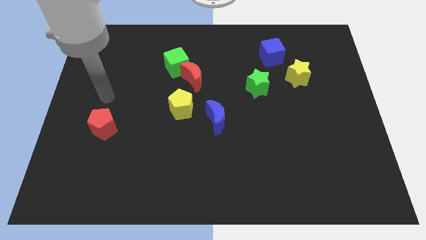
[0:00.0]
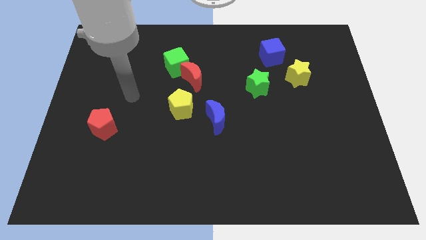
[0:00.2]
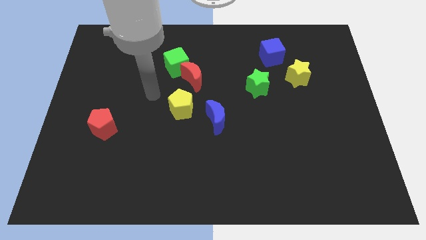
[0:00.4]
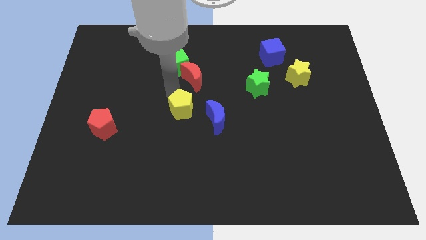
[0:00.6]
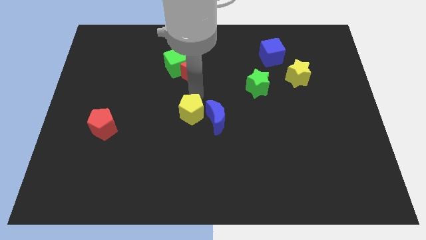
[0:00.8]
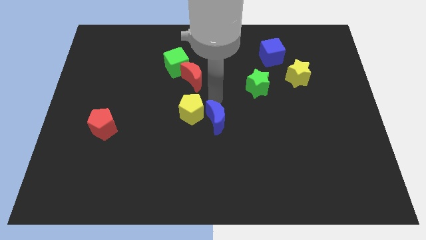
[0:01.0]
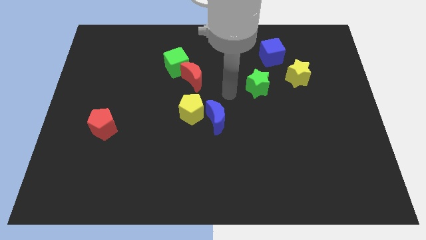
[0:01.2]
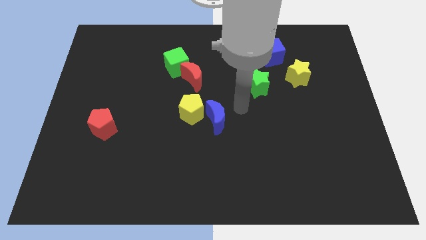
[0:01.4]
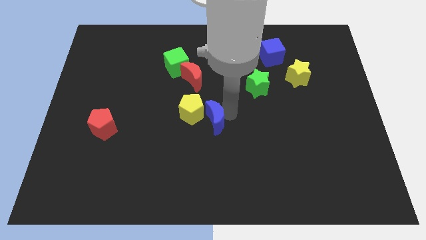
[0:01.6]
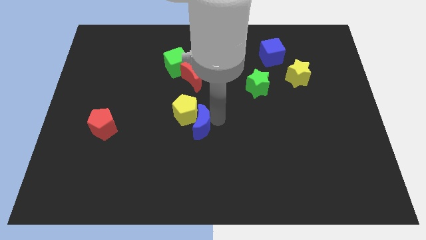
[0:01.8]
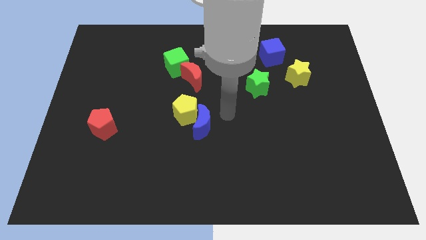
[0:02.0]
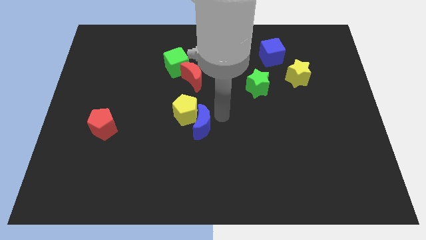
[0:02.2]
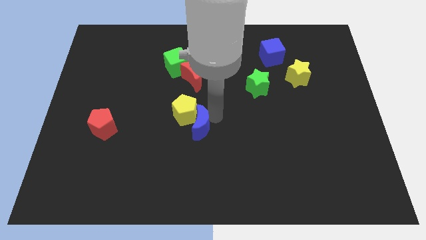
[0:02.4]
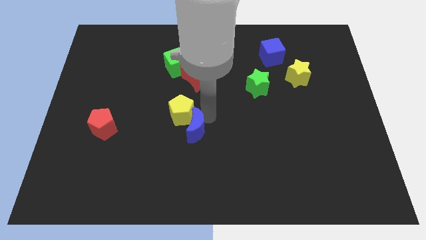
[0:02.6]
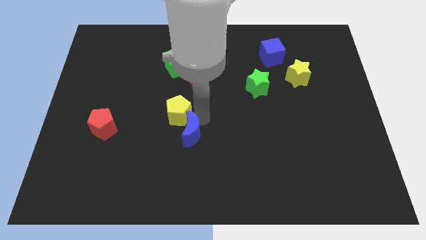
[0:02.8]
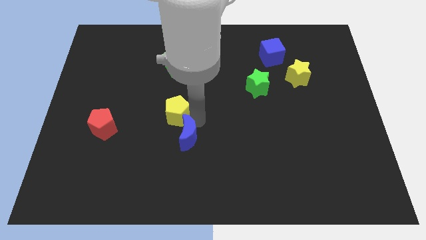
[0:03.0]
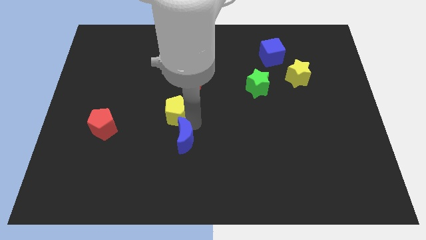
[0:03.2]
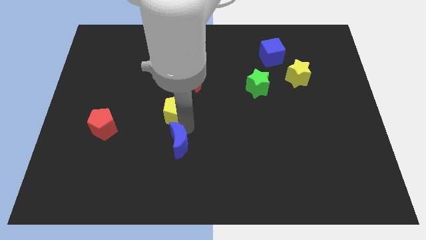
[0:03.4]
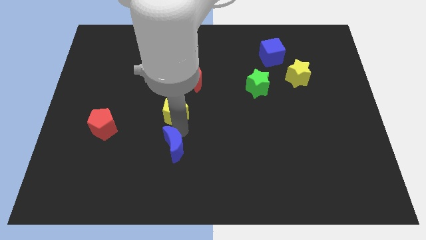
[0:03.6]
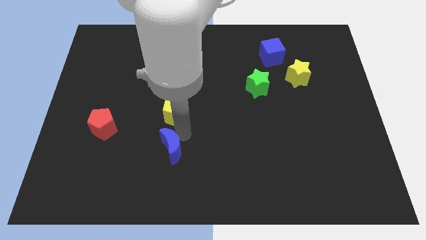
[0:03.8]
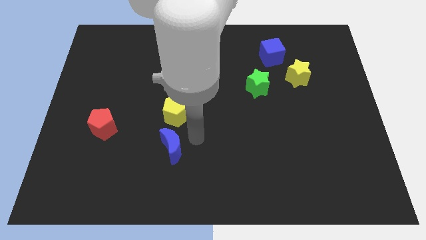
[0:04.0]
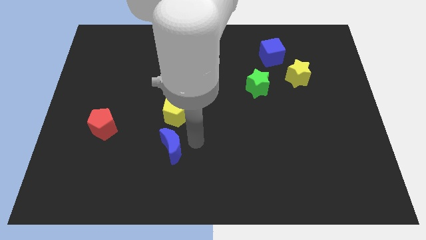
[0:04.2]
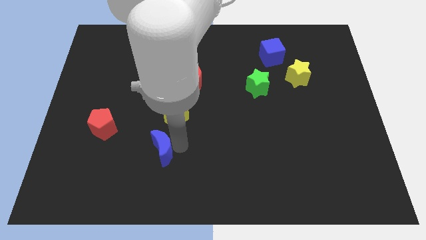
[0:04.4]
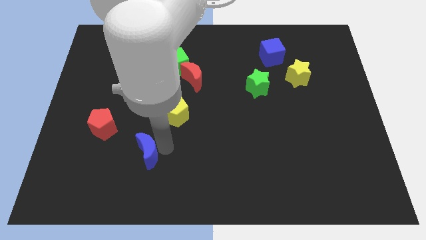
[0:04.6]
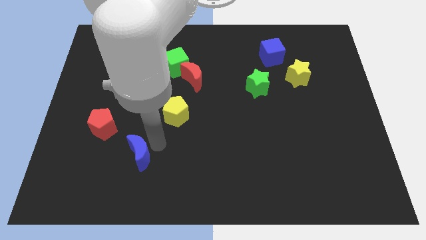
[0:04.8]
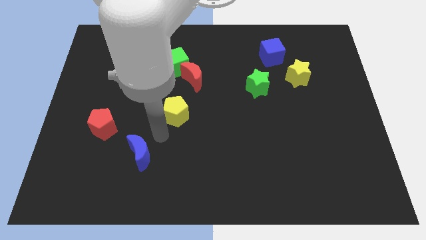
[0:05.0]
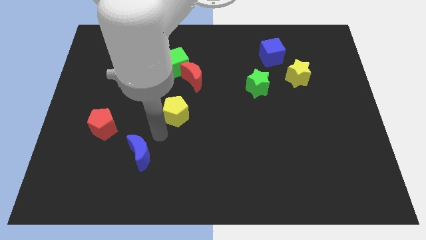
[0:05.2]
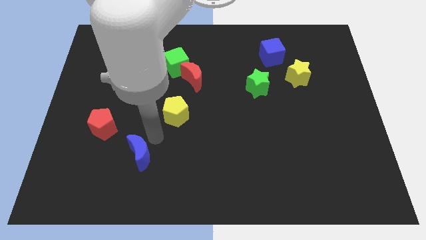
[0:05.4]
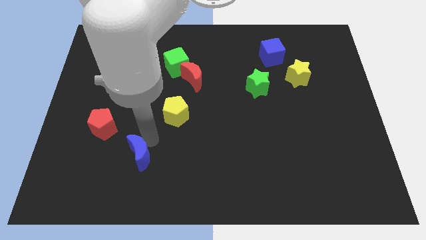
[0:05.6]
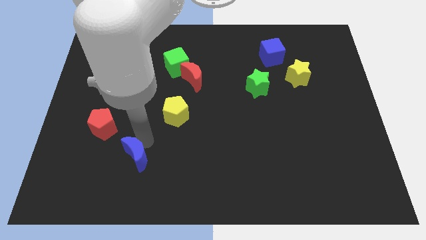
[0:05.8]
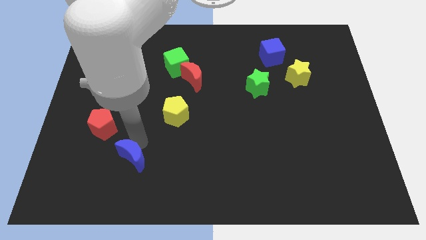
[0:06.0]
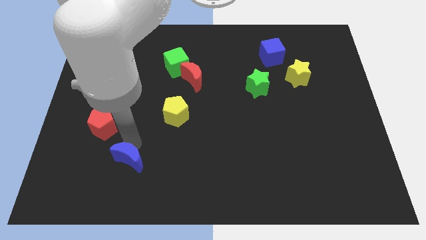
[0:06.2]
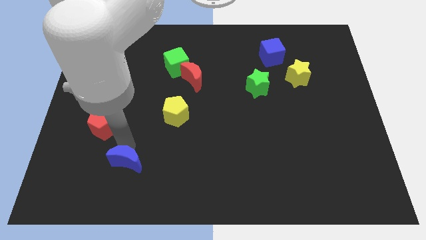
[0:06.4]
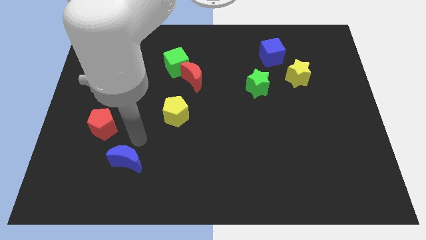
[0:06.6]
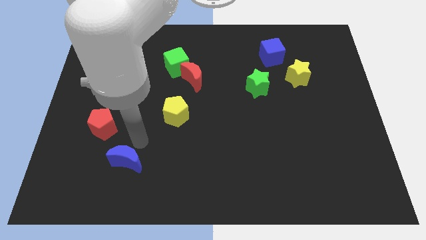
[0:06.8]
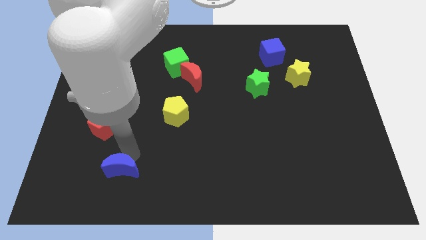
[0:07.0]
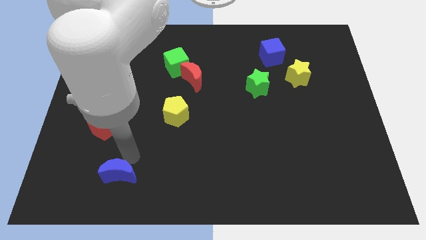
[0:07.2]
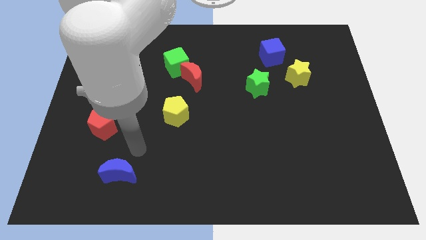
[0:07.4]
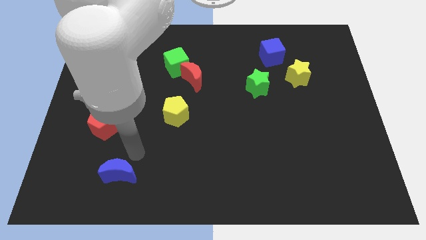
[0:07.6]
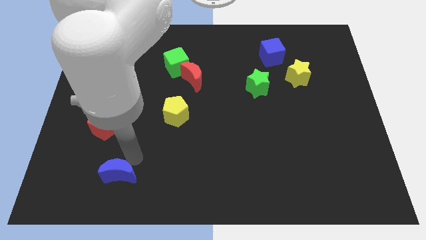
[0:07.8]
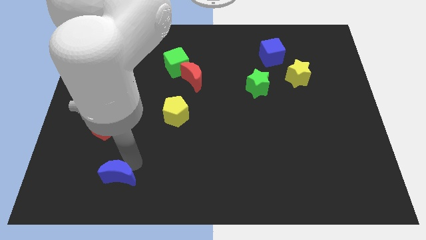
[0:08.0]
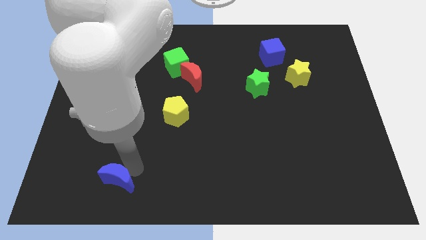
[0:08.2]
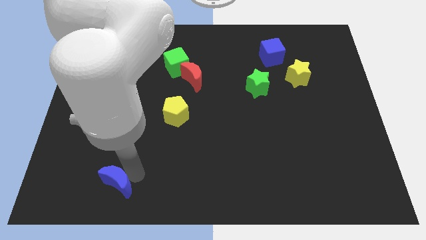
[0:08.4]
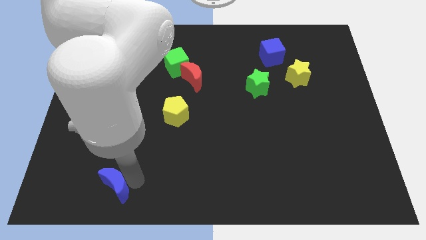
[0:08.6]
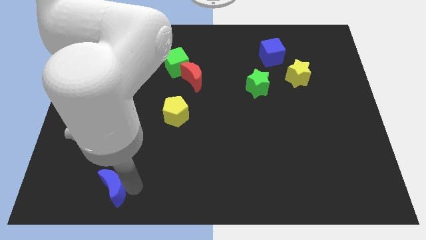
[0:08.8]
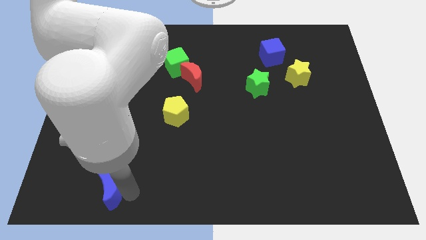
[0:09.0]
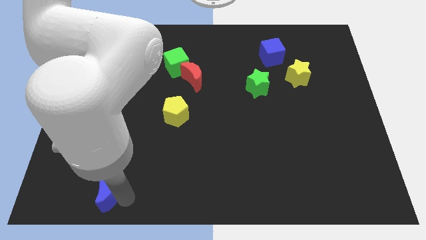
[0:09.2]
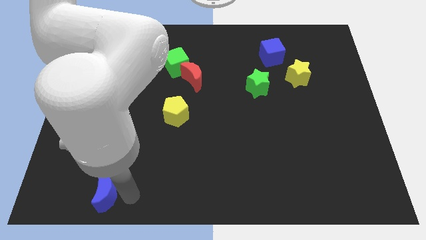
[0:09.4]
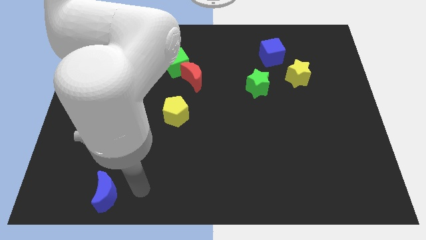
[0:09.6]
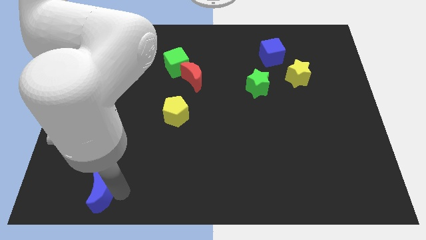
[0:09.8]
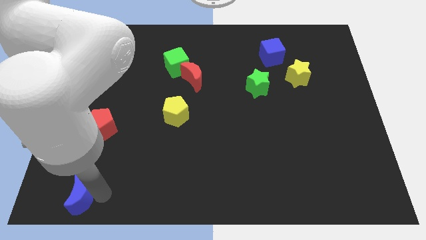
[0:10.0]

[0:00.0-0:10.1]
slide the blue moon to the bottom left of the board

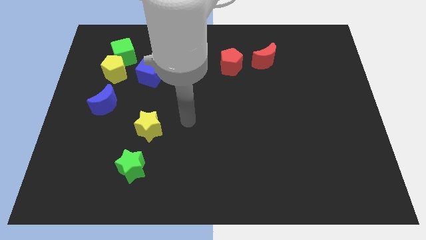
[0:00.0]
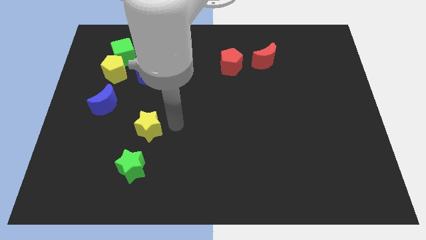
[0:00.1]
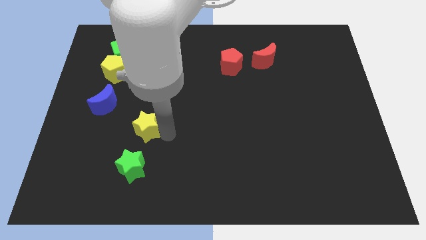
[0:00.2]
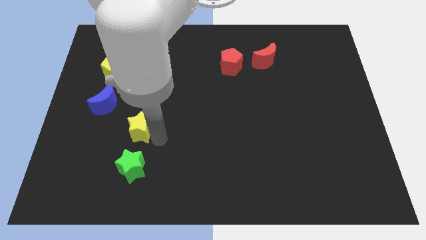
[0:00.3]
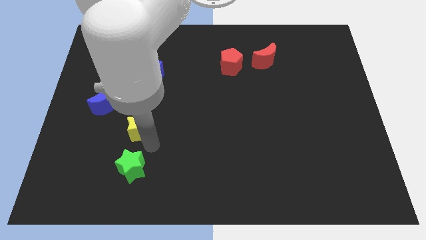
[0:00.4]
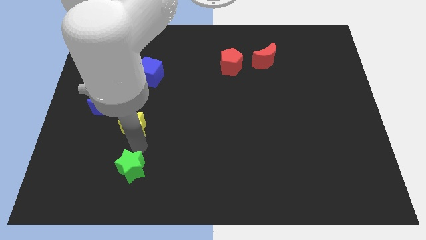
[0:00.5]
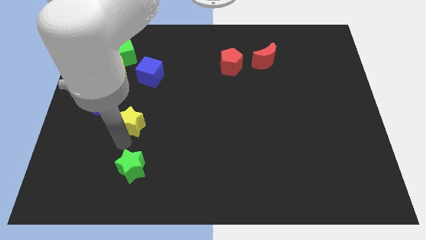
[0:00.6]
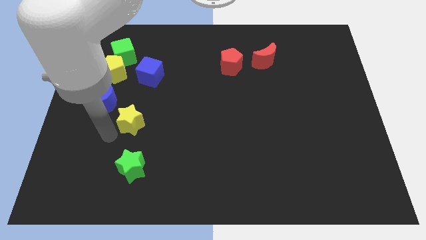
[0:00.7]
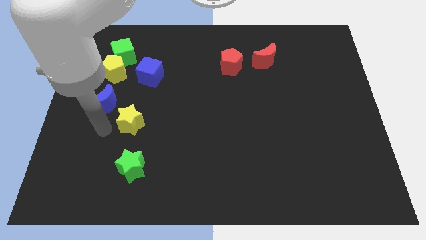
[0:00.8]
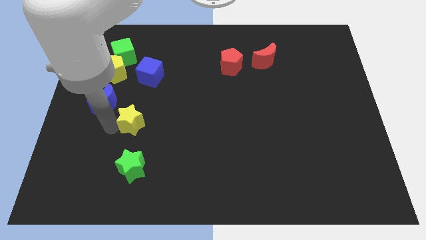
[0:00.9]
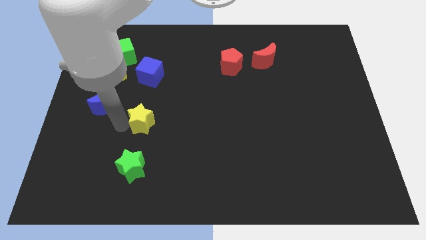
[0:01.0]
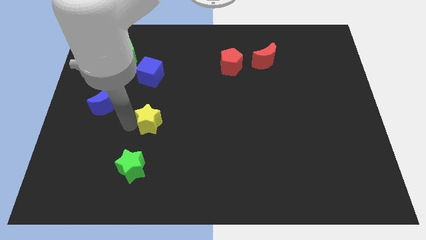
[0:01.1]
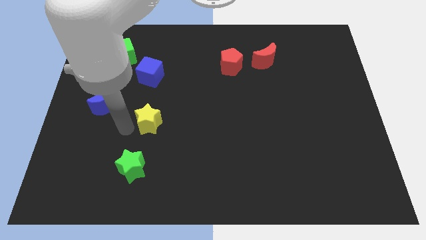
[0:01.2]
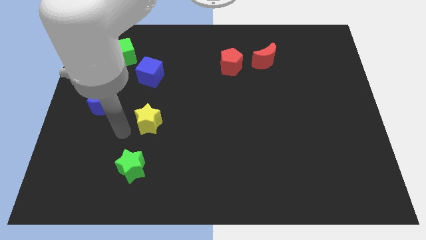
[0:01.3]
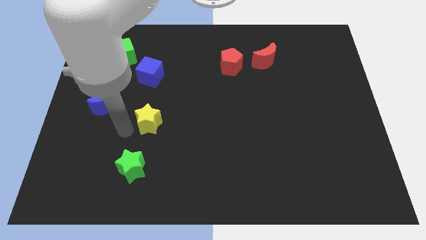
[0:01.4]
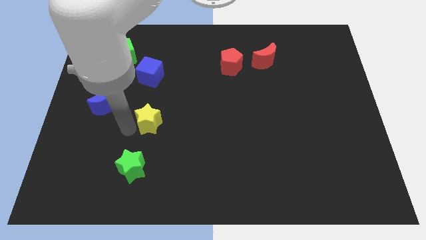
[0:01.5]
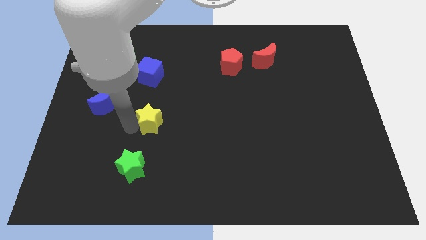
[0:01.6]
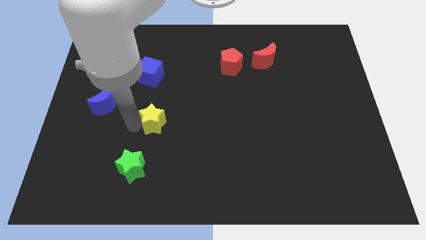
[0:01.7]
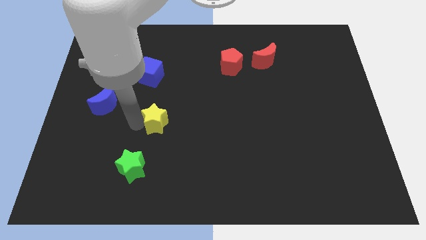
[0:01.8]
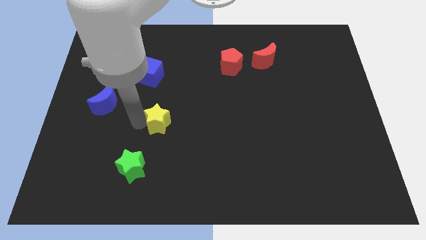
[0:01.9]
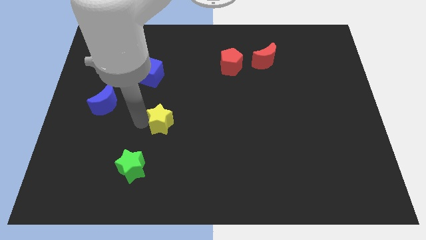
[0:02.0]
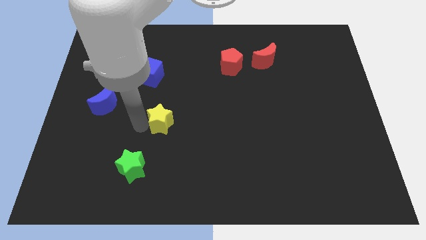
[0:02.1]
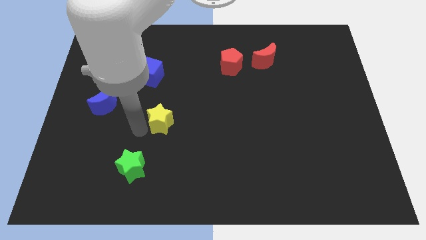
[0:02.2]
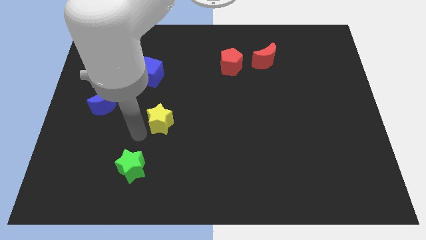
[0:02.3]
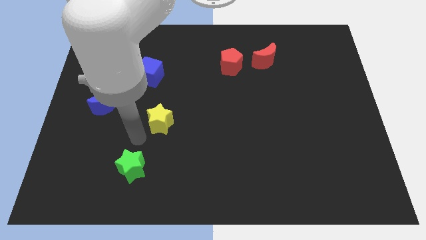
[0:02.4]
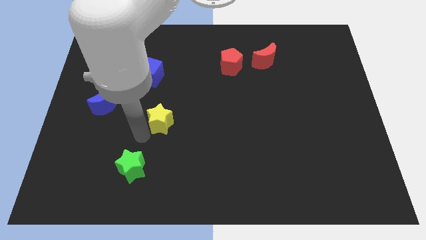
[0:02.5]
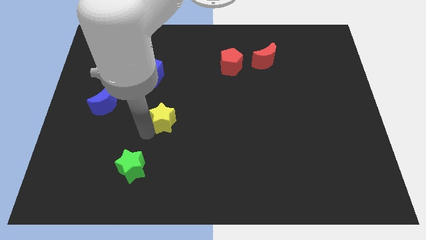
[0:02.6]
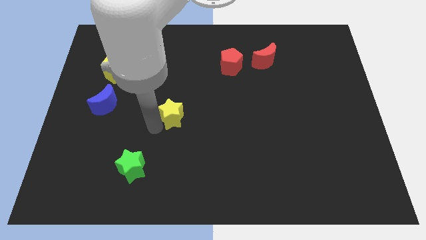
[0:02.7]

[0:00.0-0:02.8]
push the yellow star to the middle
